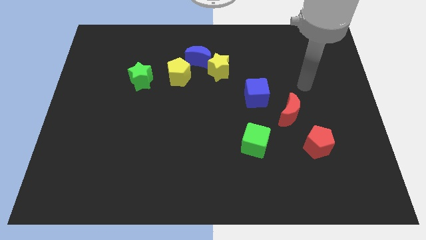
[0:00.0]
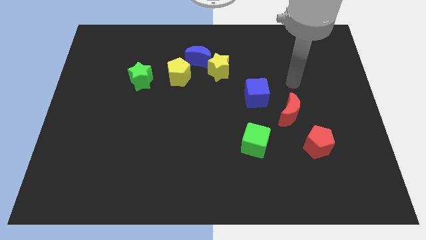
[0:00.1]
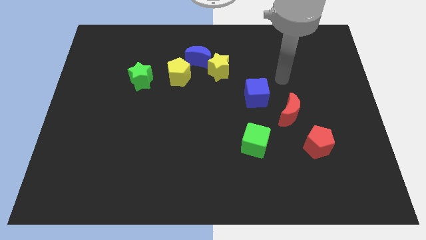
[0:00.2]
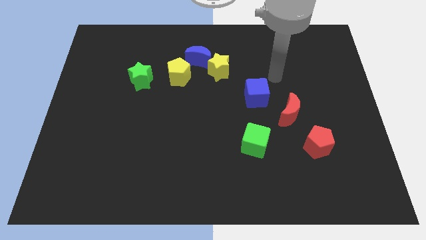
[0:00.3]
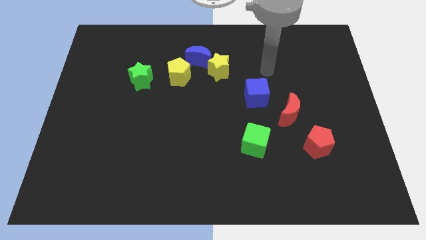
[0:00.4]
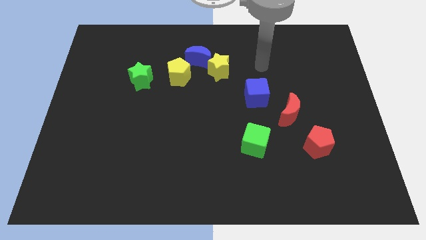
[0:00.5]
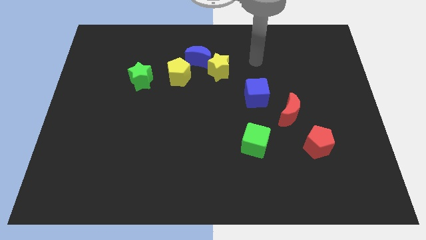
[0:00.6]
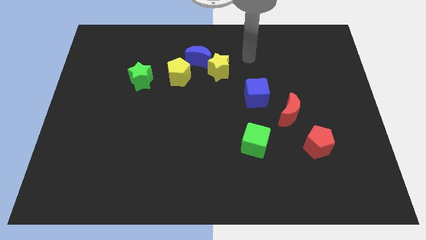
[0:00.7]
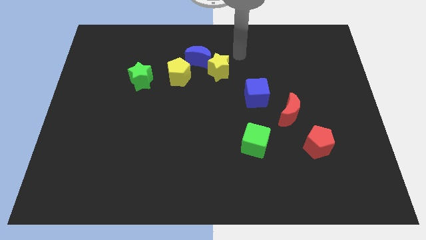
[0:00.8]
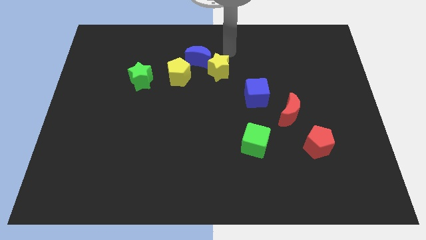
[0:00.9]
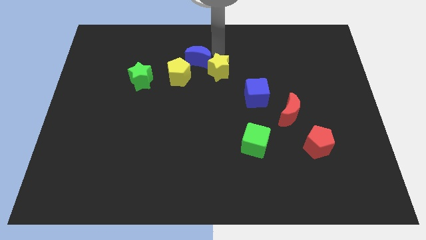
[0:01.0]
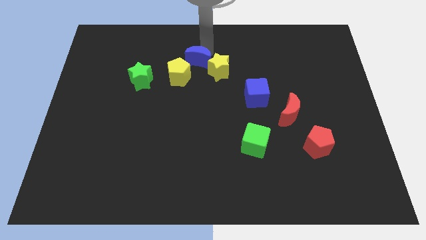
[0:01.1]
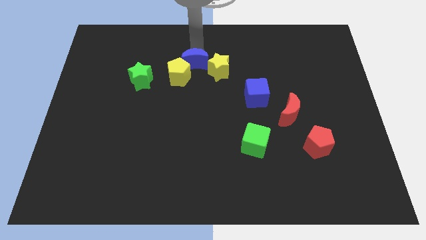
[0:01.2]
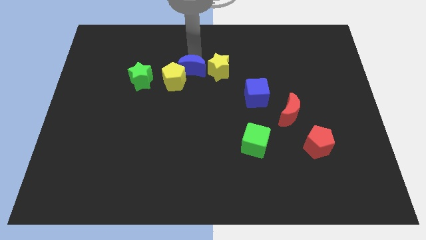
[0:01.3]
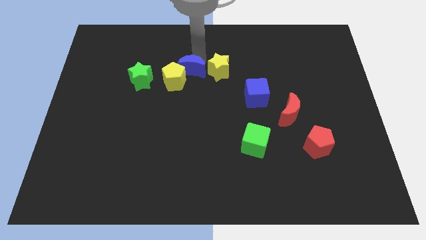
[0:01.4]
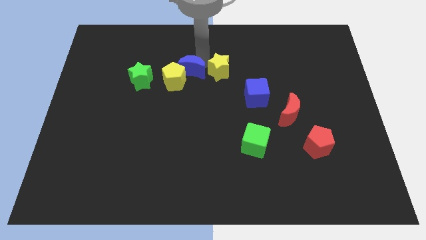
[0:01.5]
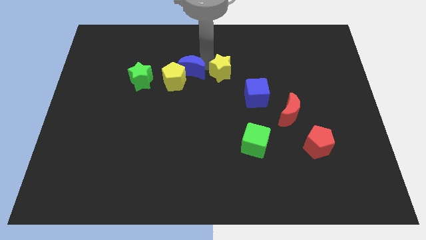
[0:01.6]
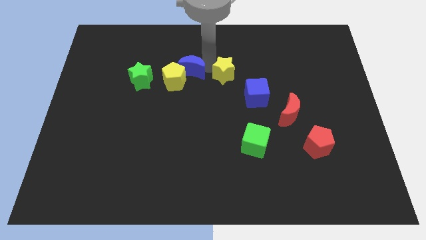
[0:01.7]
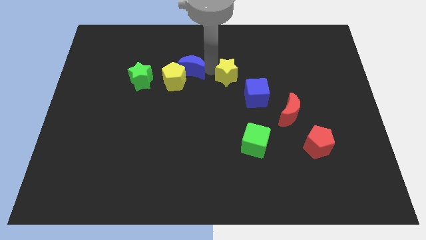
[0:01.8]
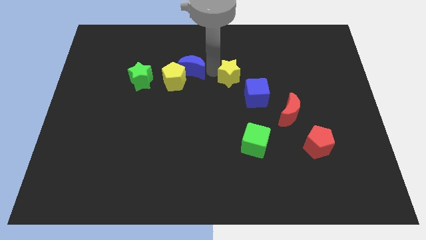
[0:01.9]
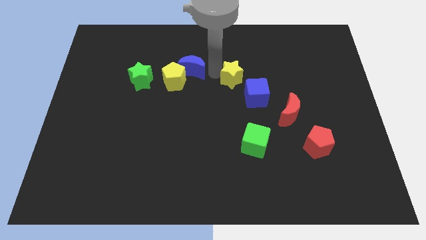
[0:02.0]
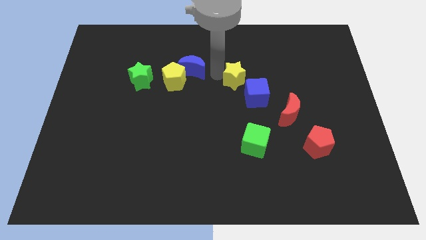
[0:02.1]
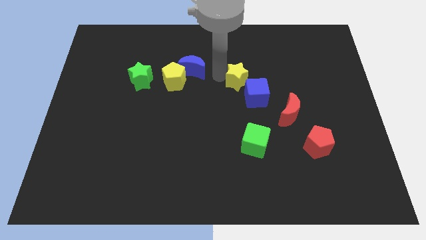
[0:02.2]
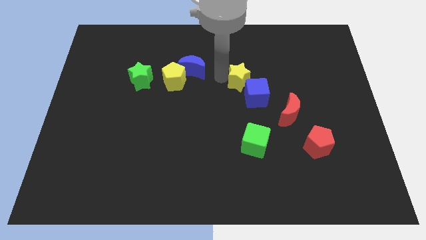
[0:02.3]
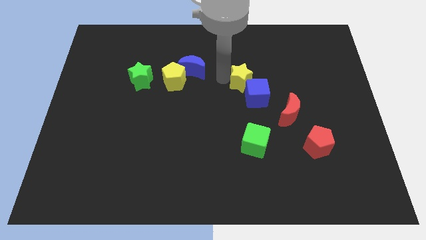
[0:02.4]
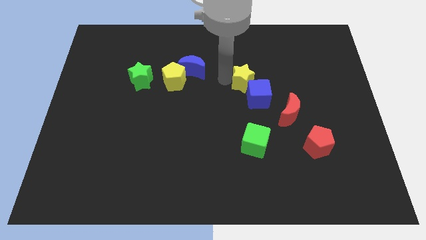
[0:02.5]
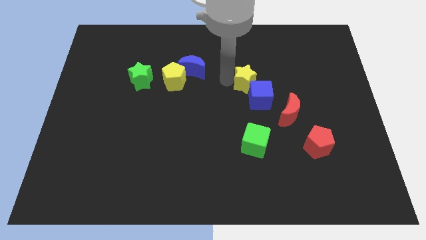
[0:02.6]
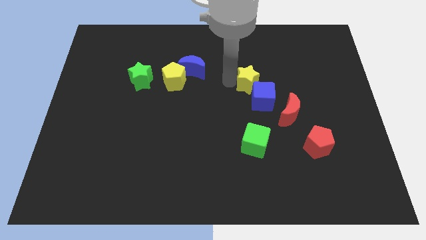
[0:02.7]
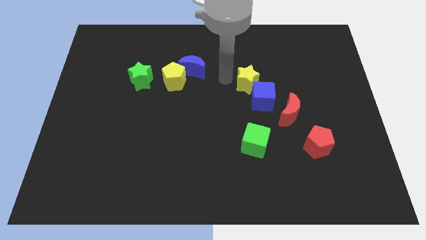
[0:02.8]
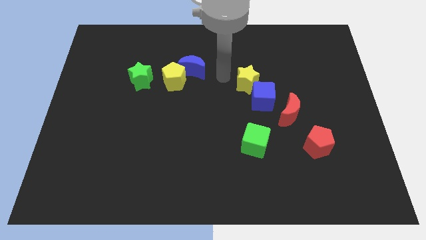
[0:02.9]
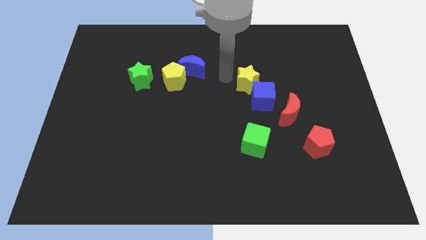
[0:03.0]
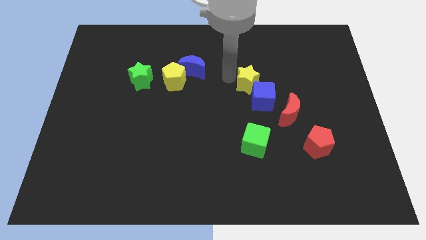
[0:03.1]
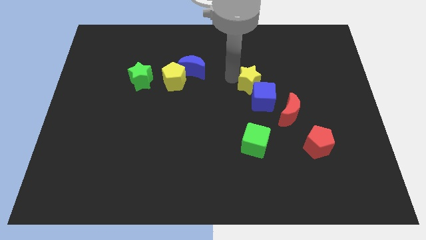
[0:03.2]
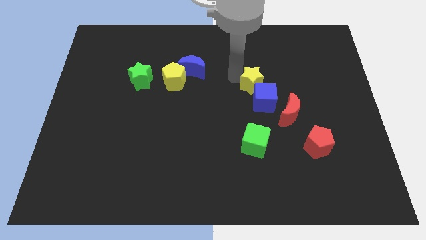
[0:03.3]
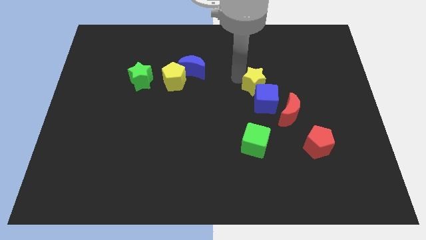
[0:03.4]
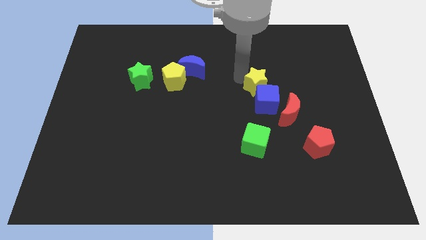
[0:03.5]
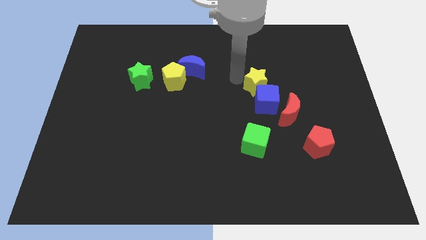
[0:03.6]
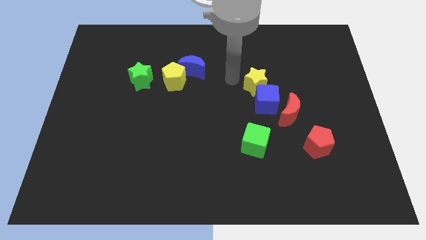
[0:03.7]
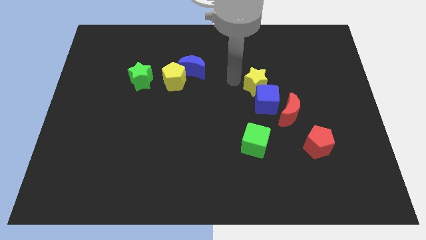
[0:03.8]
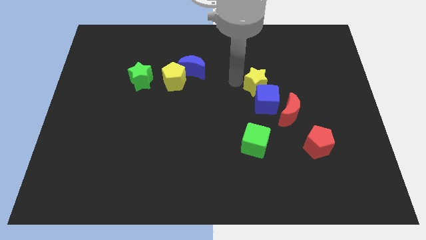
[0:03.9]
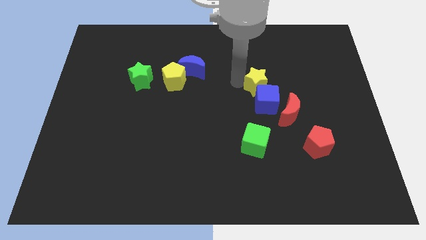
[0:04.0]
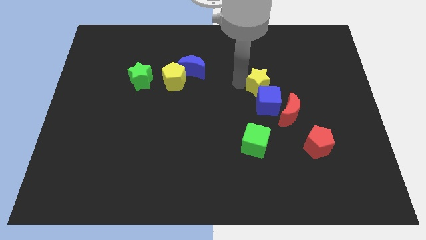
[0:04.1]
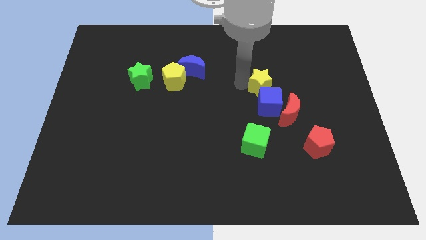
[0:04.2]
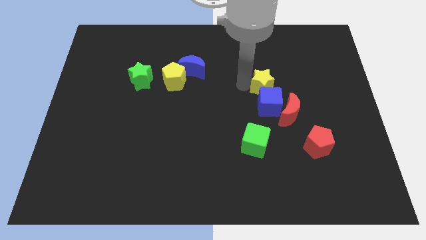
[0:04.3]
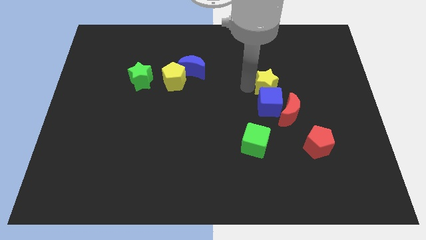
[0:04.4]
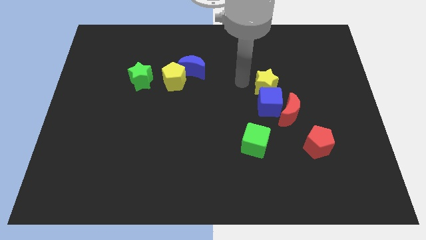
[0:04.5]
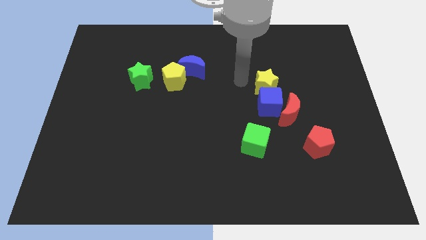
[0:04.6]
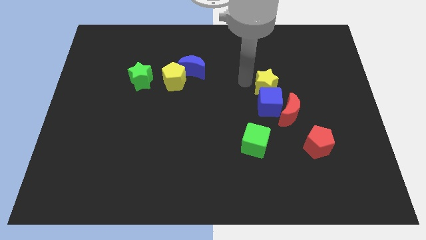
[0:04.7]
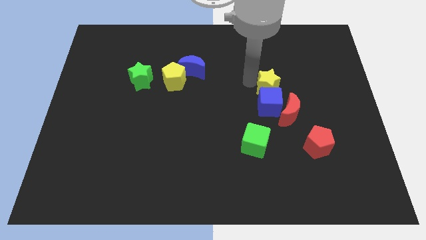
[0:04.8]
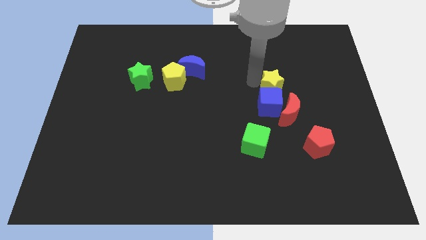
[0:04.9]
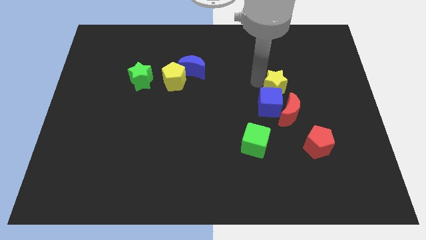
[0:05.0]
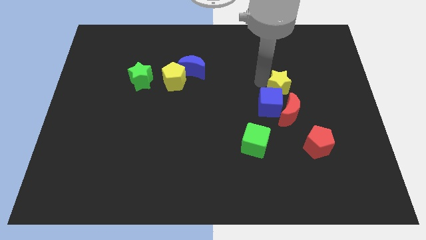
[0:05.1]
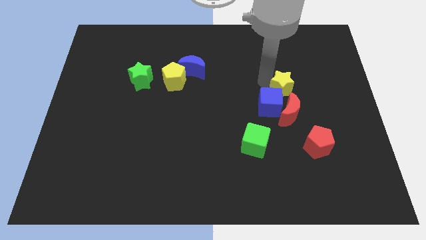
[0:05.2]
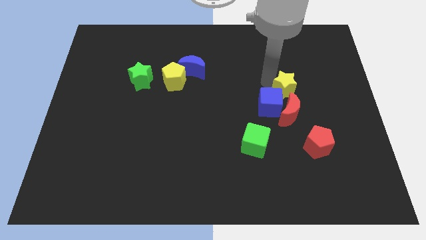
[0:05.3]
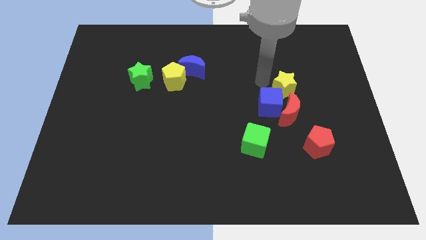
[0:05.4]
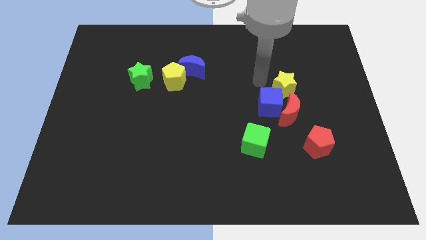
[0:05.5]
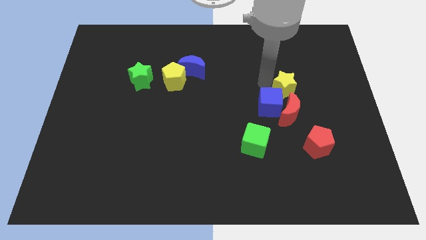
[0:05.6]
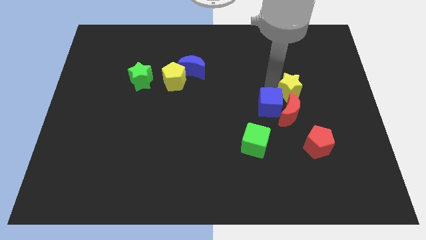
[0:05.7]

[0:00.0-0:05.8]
move the yellow star to the top right side of the red moon

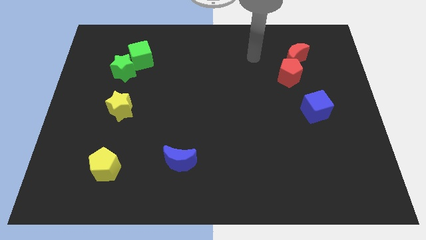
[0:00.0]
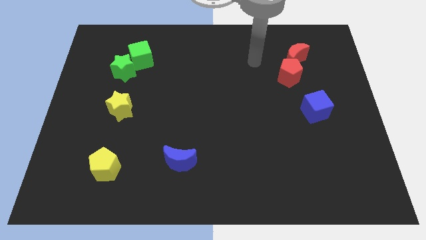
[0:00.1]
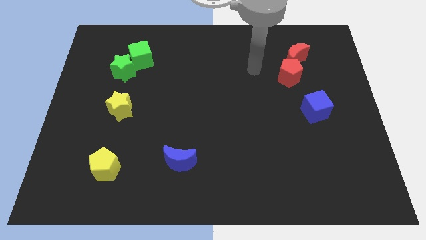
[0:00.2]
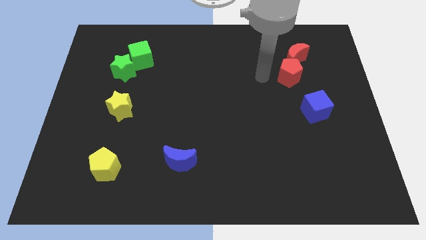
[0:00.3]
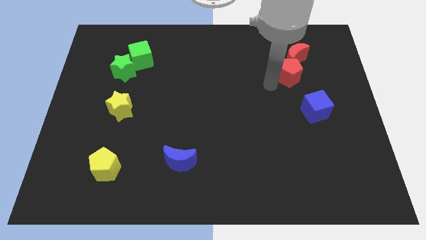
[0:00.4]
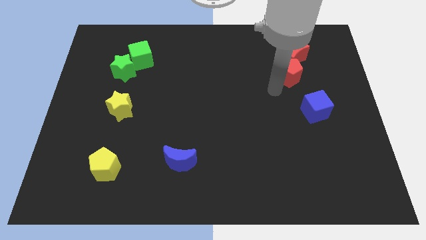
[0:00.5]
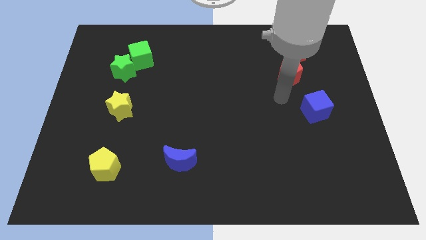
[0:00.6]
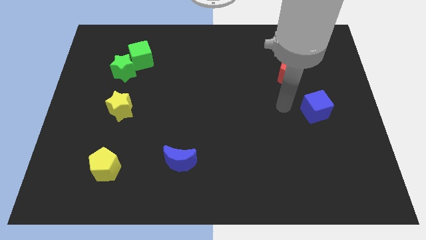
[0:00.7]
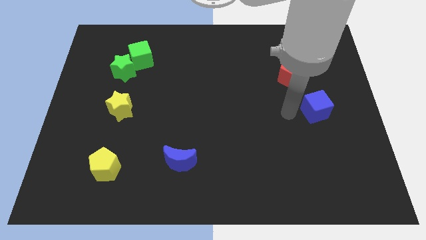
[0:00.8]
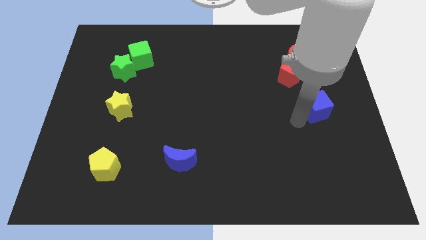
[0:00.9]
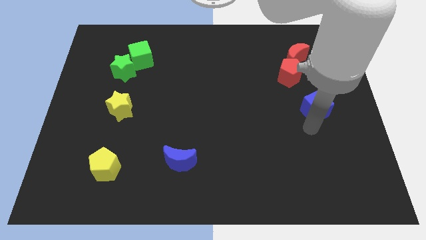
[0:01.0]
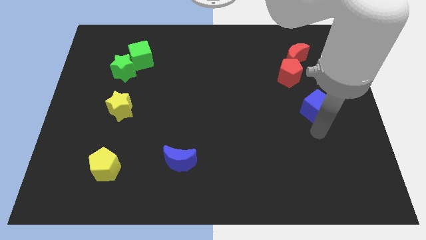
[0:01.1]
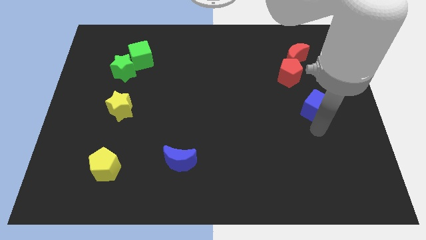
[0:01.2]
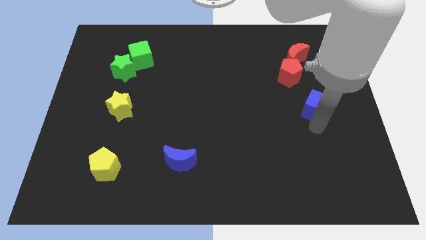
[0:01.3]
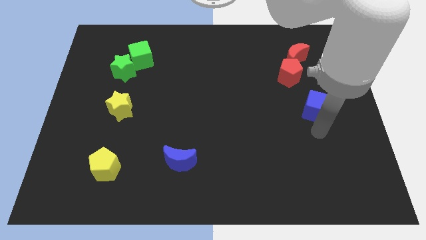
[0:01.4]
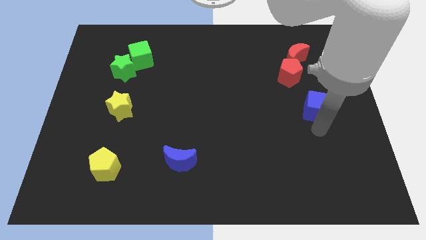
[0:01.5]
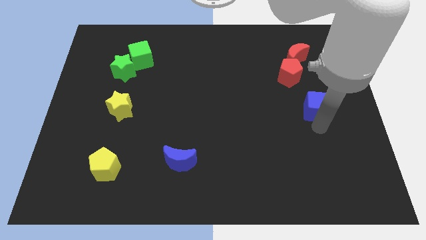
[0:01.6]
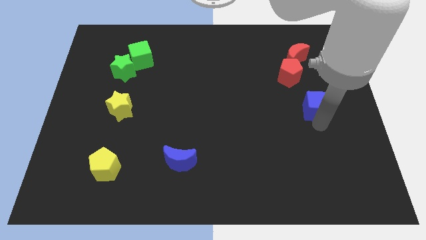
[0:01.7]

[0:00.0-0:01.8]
push the blue cube to the bottom right side of the red pentagon
